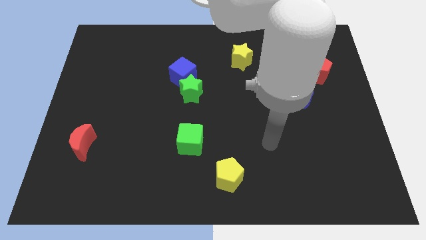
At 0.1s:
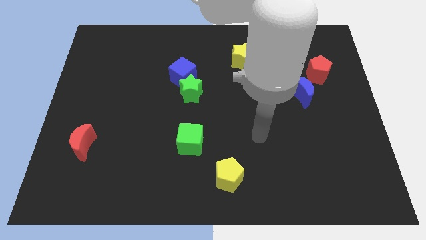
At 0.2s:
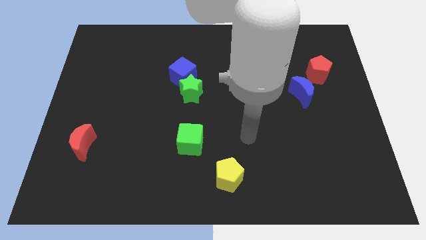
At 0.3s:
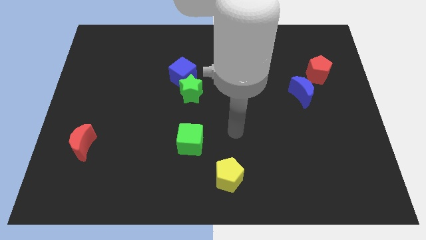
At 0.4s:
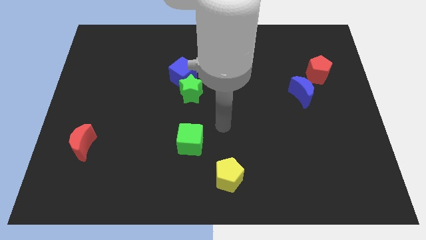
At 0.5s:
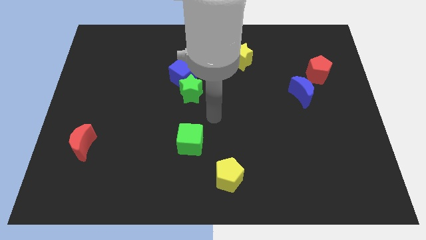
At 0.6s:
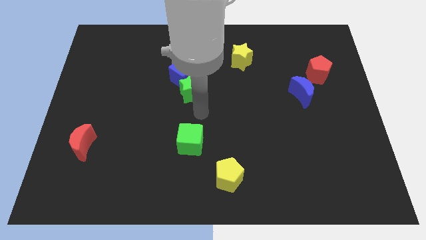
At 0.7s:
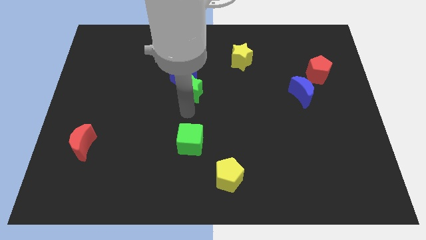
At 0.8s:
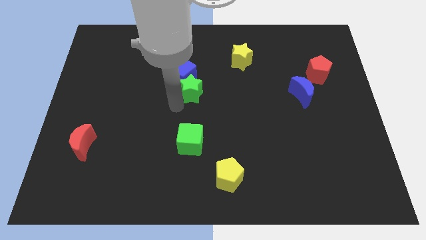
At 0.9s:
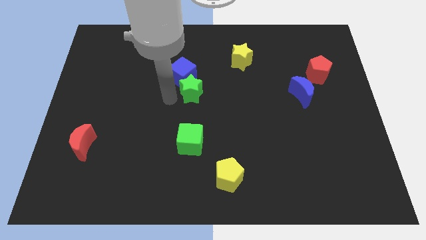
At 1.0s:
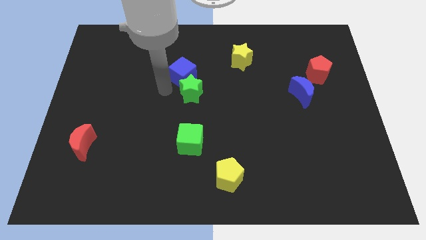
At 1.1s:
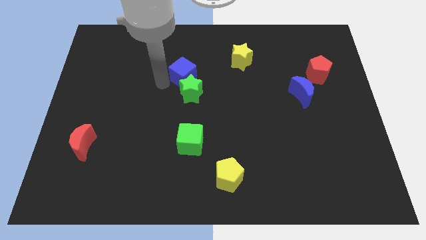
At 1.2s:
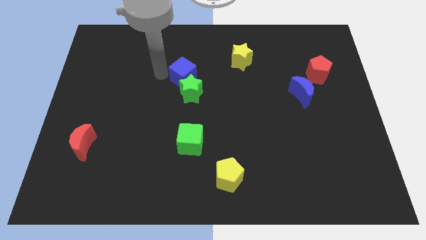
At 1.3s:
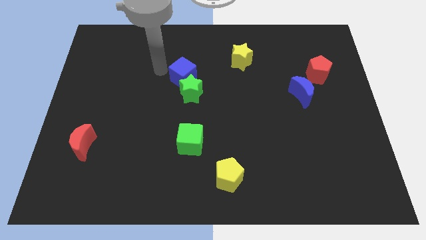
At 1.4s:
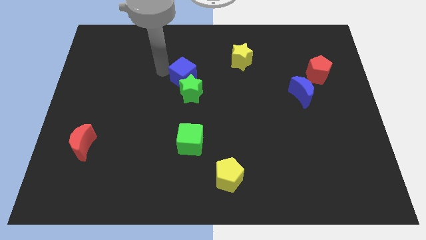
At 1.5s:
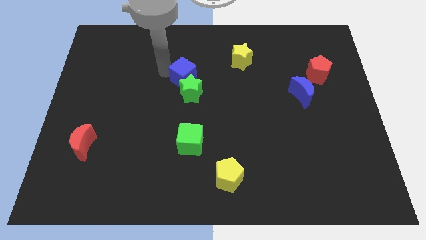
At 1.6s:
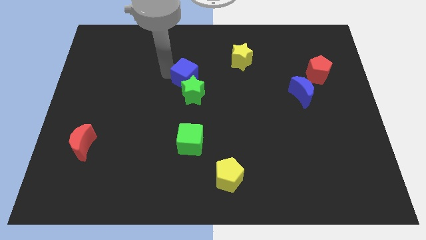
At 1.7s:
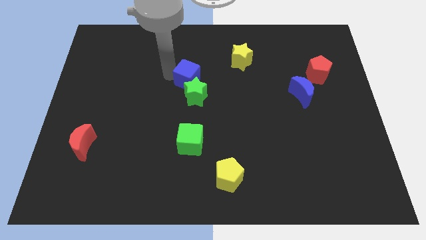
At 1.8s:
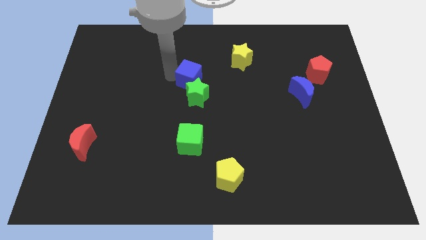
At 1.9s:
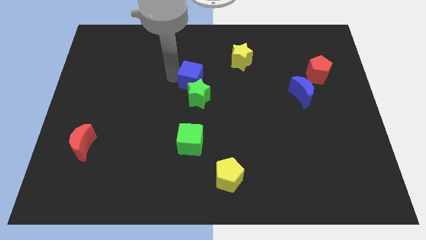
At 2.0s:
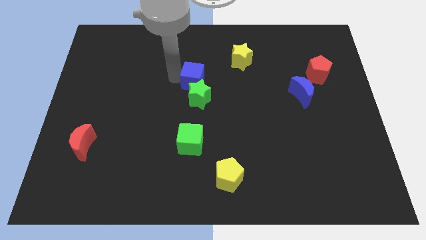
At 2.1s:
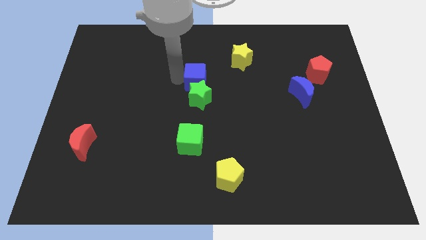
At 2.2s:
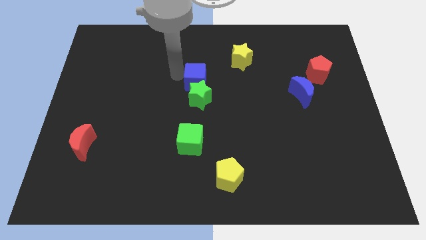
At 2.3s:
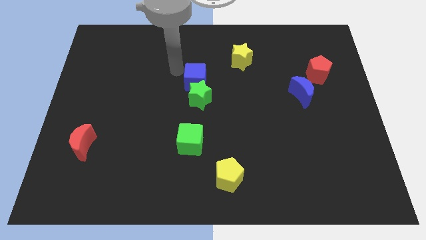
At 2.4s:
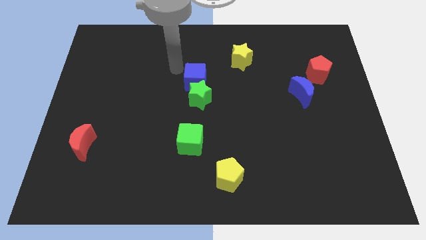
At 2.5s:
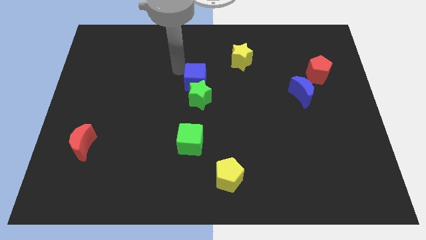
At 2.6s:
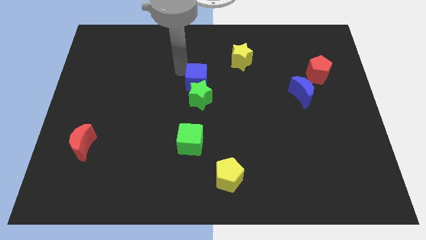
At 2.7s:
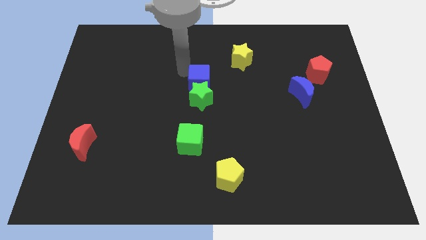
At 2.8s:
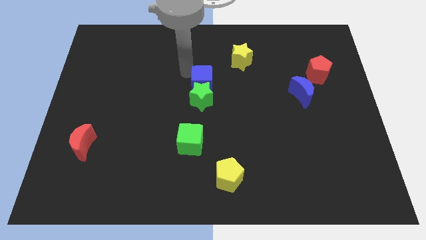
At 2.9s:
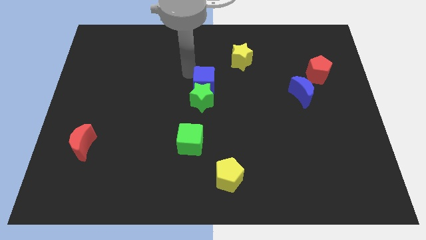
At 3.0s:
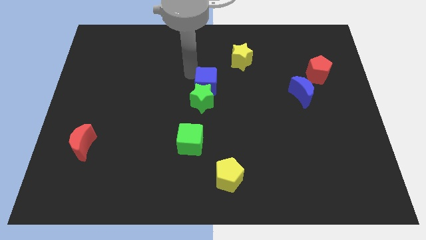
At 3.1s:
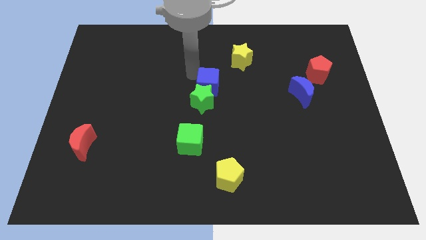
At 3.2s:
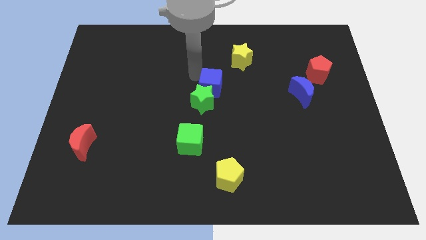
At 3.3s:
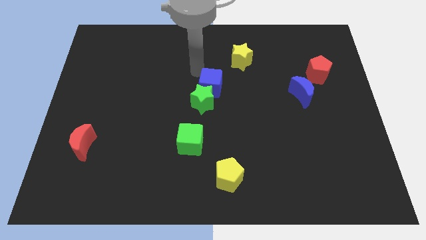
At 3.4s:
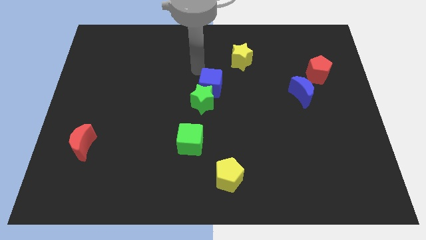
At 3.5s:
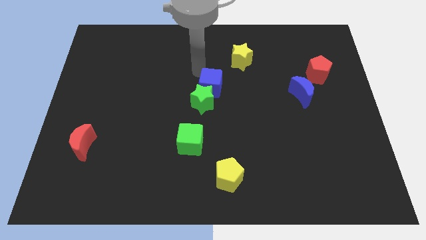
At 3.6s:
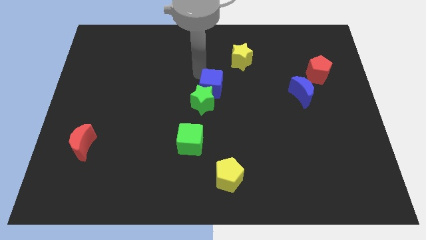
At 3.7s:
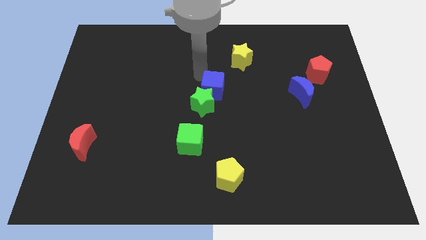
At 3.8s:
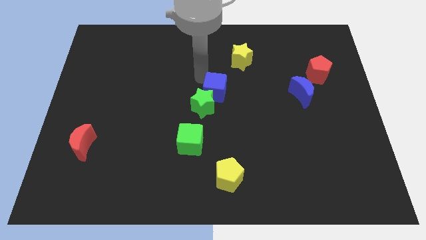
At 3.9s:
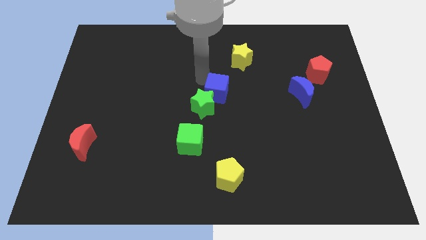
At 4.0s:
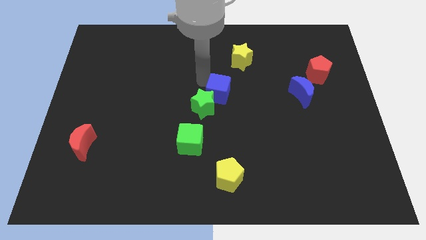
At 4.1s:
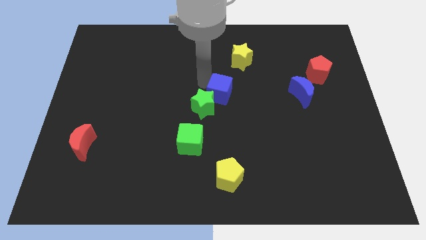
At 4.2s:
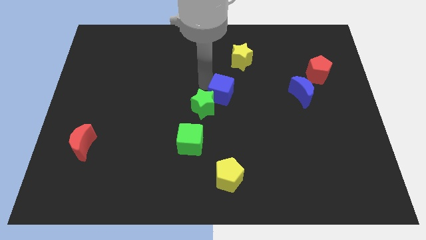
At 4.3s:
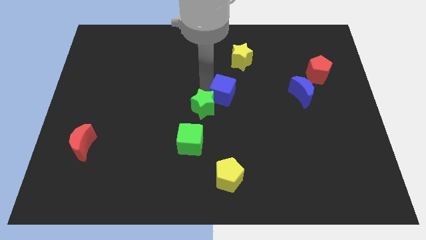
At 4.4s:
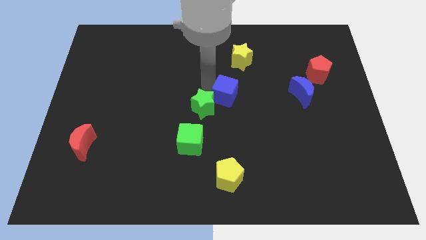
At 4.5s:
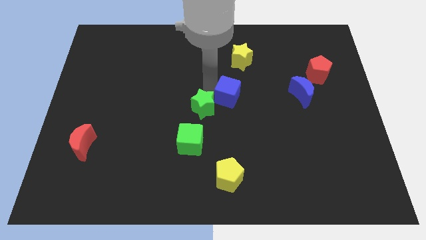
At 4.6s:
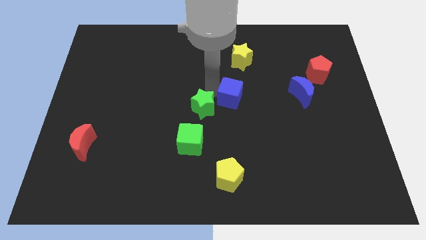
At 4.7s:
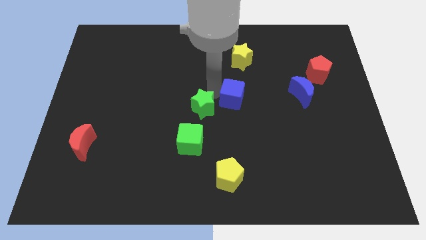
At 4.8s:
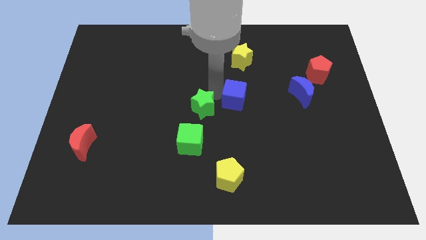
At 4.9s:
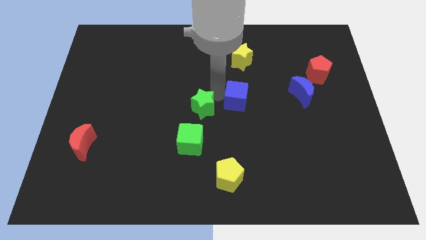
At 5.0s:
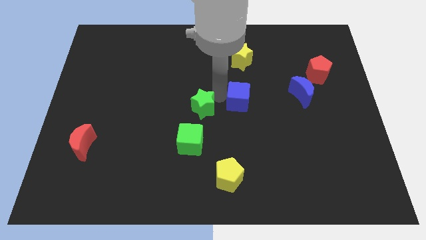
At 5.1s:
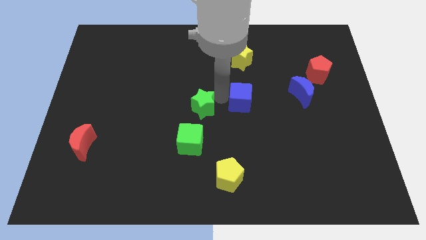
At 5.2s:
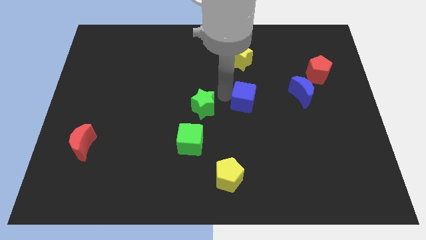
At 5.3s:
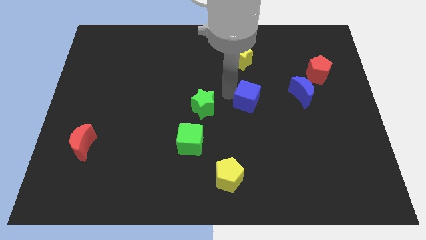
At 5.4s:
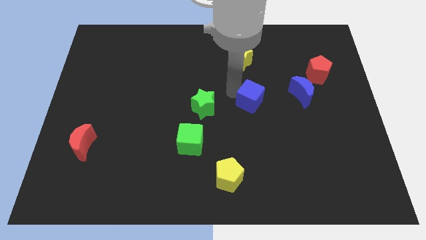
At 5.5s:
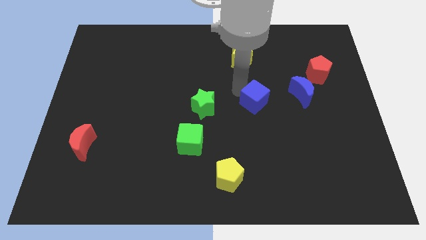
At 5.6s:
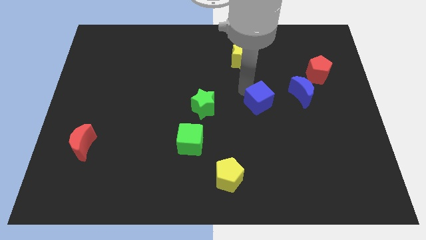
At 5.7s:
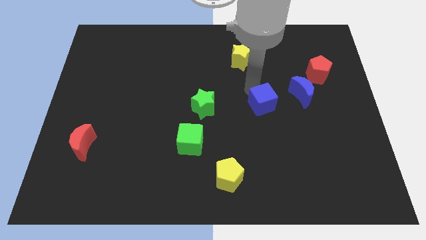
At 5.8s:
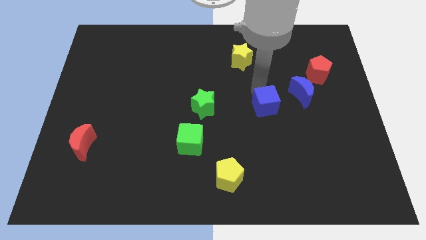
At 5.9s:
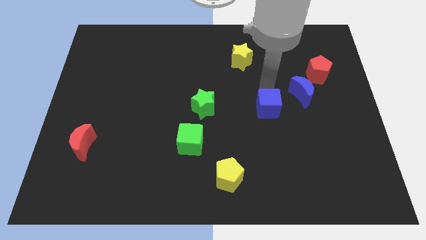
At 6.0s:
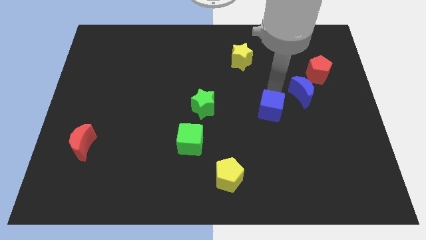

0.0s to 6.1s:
move the blue cube downwards and then to the right

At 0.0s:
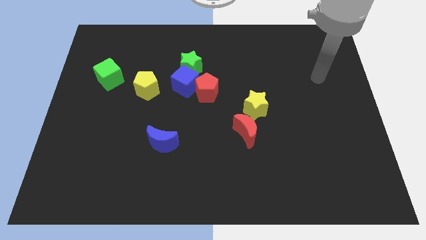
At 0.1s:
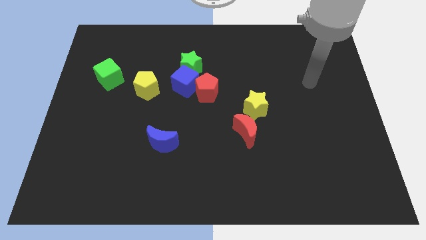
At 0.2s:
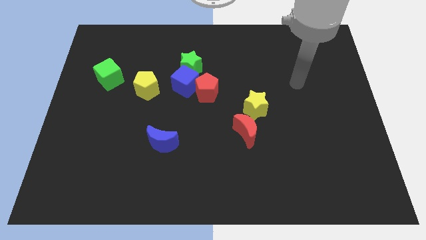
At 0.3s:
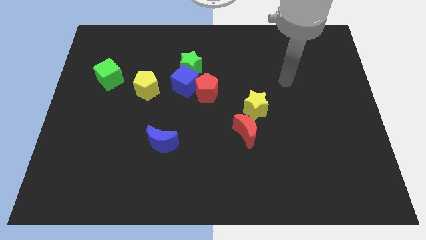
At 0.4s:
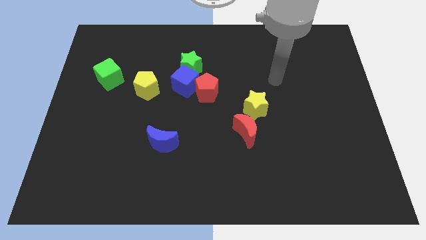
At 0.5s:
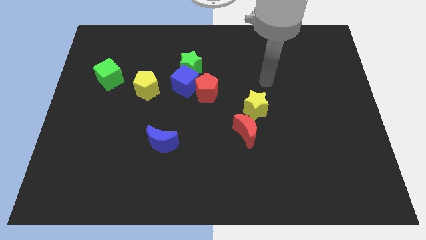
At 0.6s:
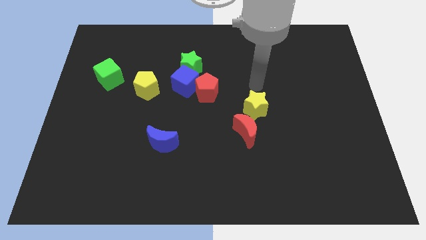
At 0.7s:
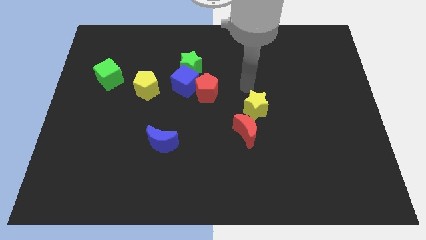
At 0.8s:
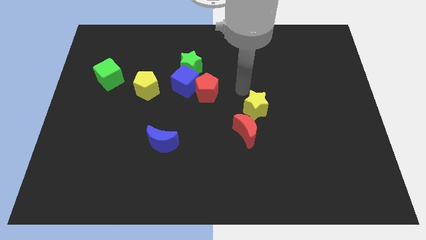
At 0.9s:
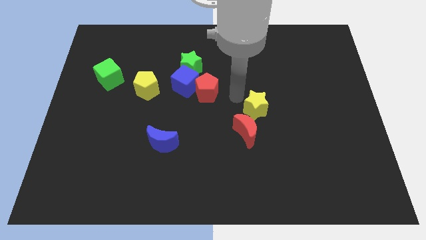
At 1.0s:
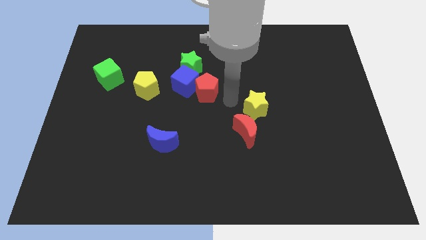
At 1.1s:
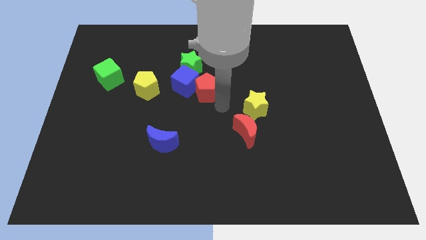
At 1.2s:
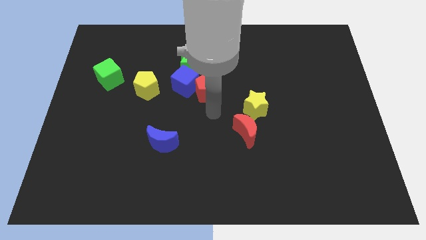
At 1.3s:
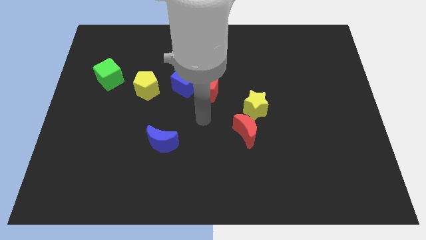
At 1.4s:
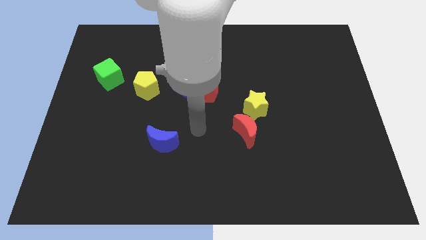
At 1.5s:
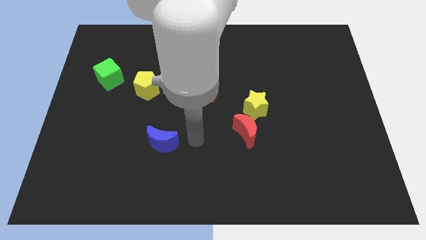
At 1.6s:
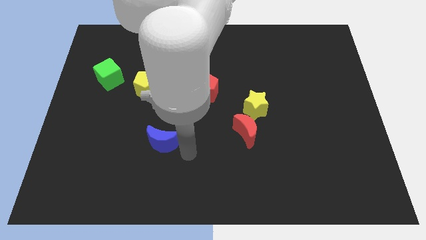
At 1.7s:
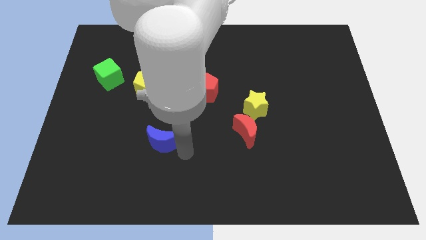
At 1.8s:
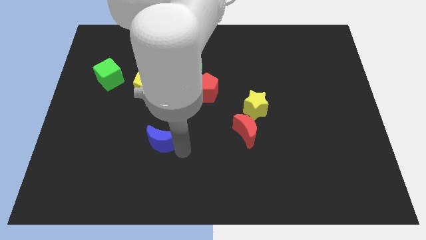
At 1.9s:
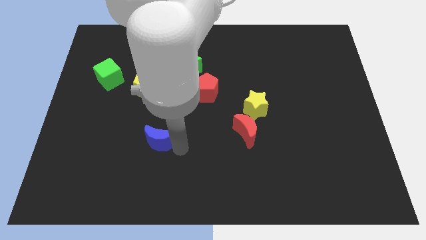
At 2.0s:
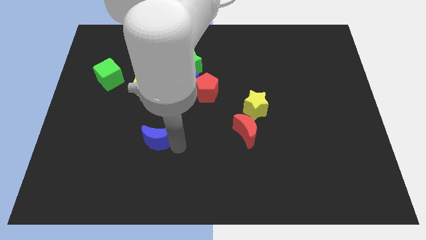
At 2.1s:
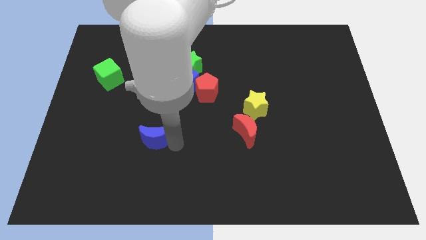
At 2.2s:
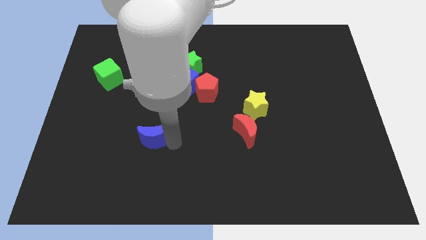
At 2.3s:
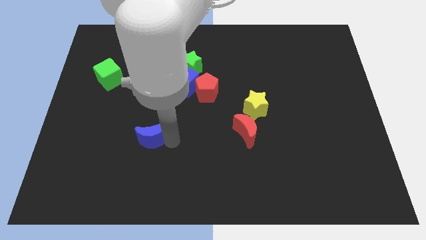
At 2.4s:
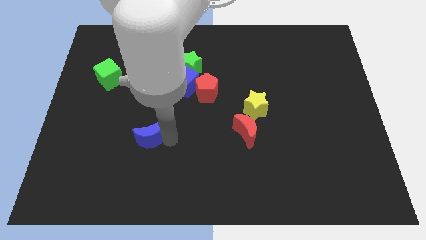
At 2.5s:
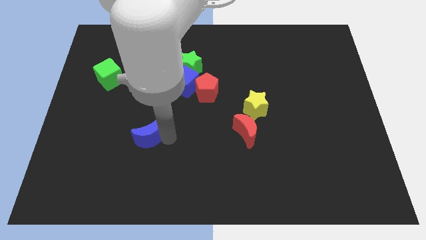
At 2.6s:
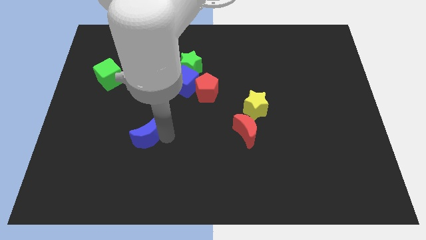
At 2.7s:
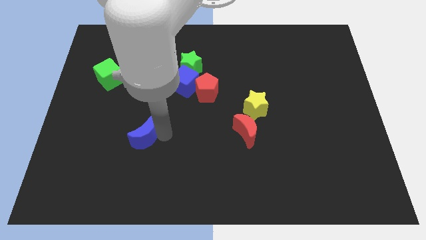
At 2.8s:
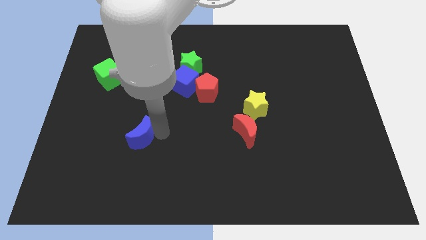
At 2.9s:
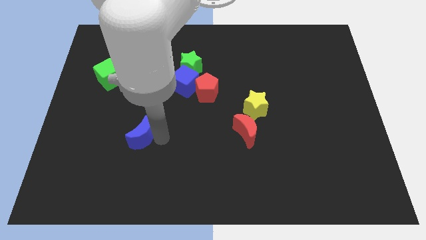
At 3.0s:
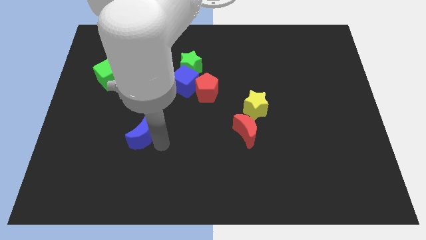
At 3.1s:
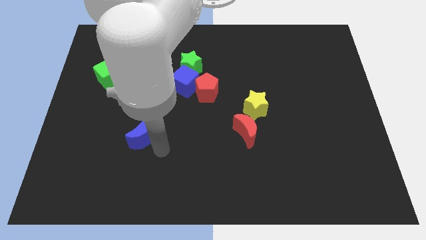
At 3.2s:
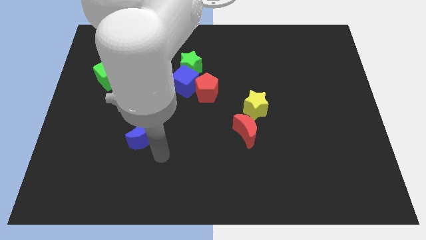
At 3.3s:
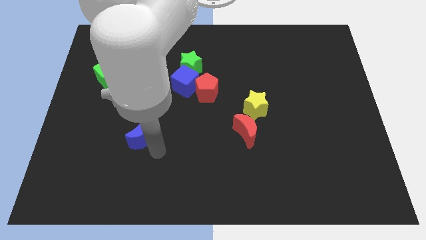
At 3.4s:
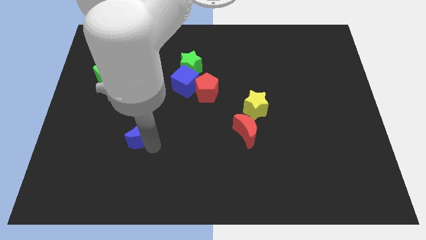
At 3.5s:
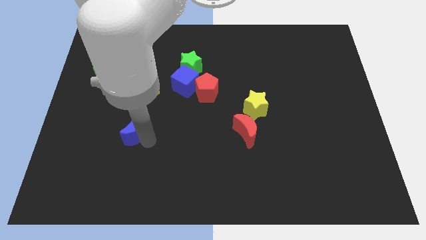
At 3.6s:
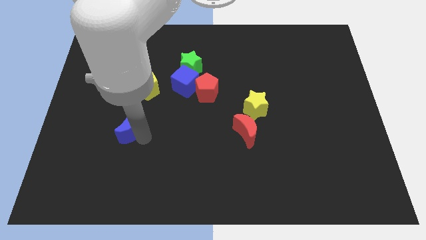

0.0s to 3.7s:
slide the blue moon up and to the left diagonally slightly
